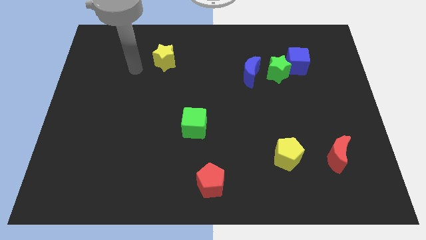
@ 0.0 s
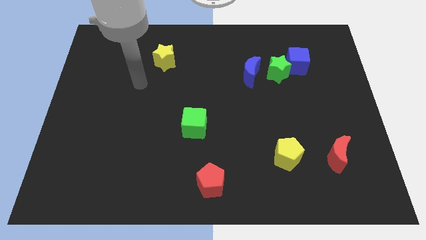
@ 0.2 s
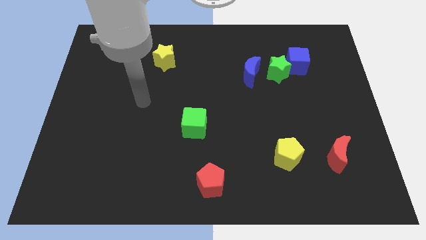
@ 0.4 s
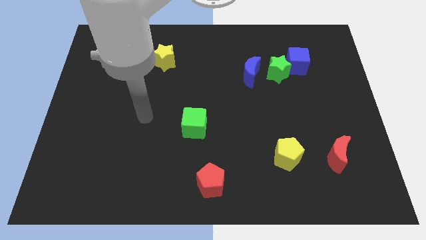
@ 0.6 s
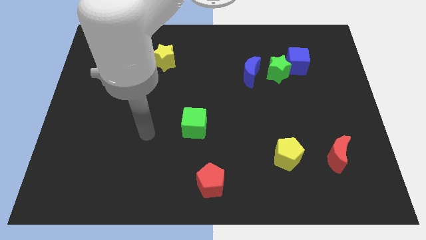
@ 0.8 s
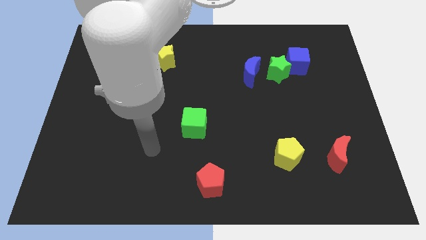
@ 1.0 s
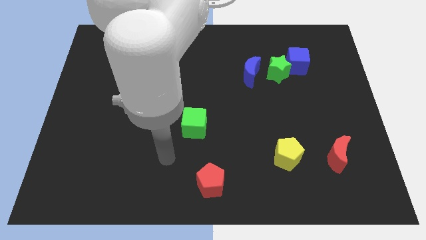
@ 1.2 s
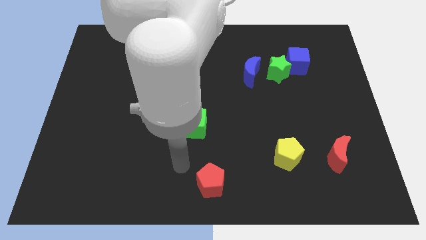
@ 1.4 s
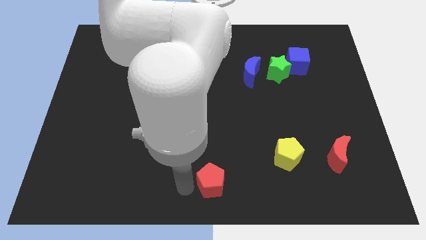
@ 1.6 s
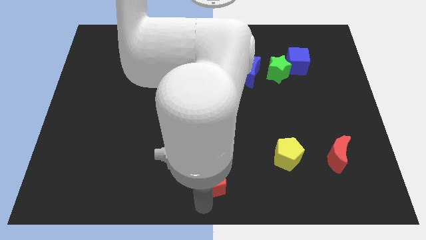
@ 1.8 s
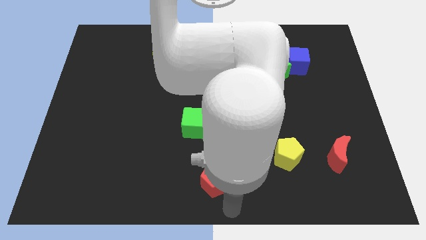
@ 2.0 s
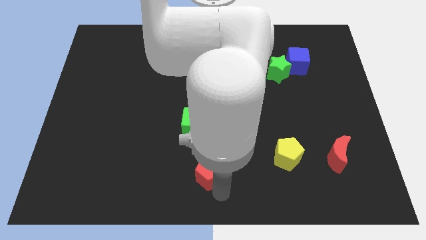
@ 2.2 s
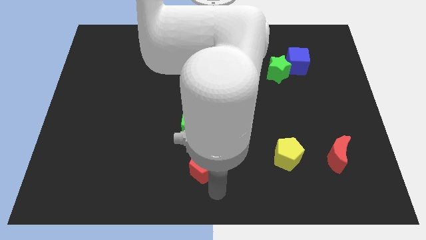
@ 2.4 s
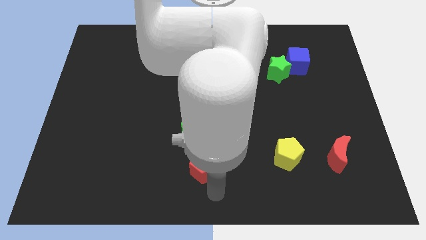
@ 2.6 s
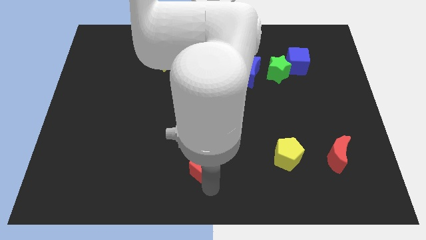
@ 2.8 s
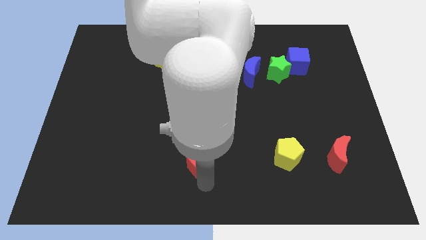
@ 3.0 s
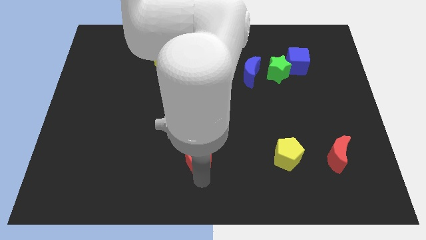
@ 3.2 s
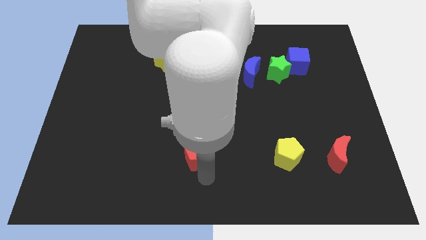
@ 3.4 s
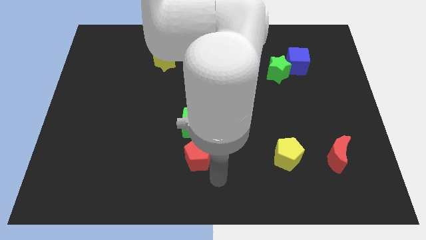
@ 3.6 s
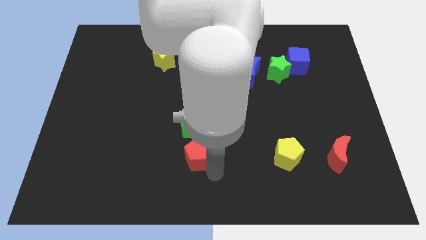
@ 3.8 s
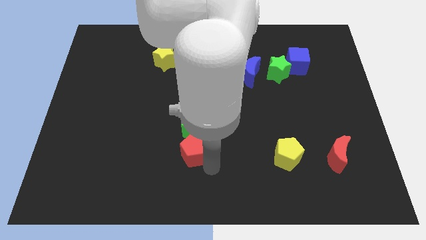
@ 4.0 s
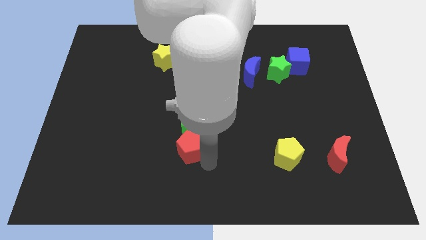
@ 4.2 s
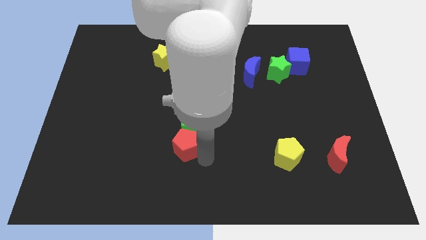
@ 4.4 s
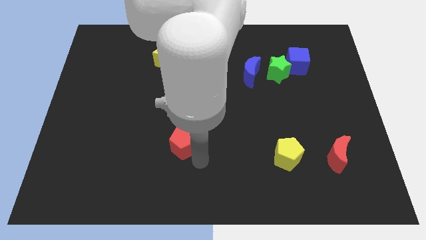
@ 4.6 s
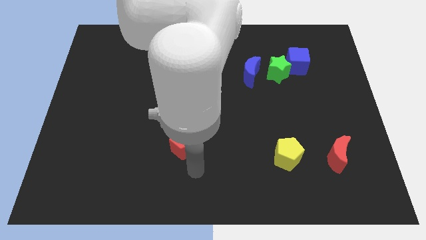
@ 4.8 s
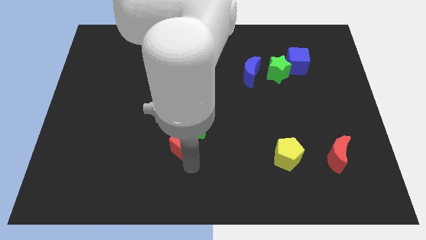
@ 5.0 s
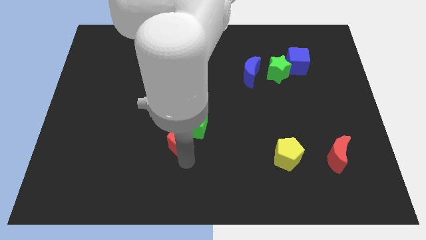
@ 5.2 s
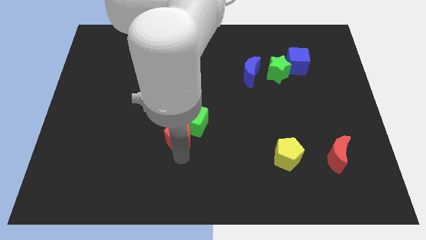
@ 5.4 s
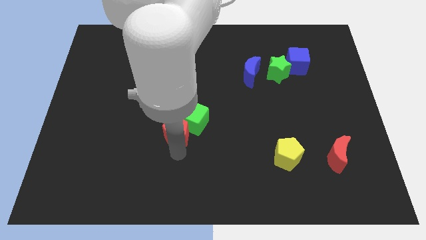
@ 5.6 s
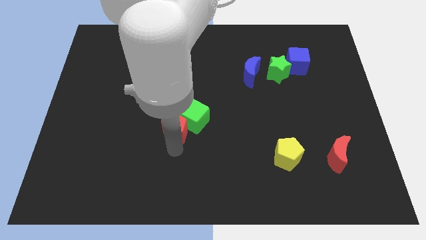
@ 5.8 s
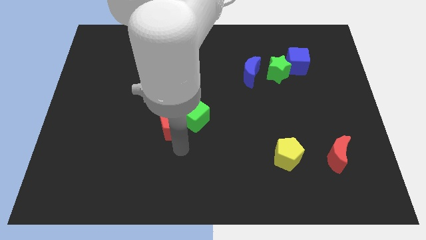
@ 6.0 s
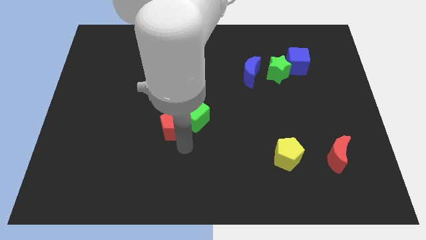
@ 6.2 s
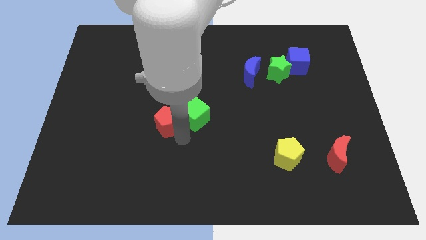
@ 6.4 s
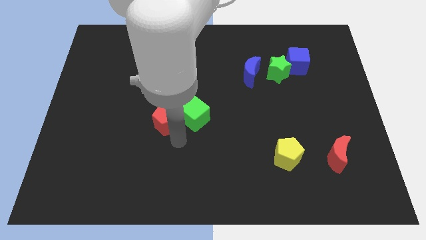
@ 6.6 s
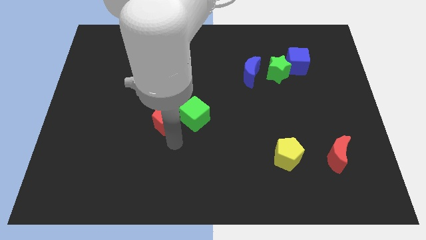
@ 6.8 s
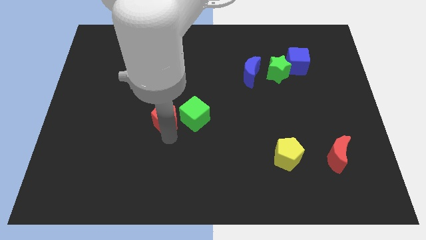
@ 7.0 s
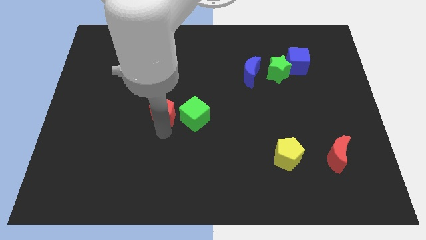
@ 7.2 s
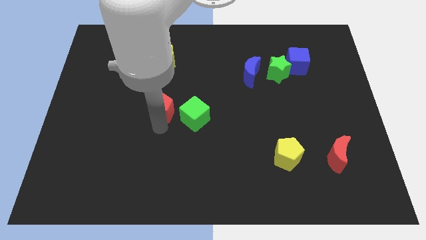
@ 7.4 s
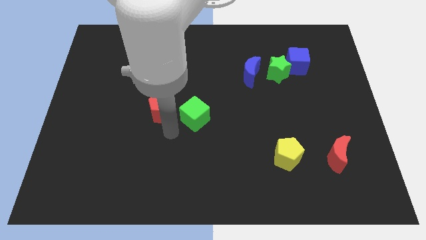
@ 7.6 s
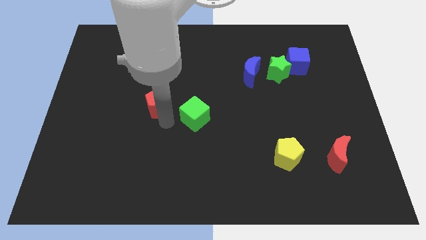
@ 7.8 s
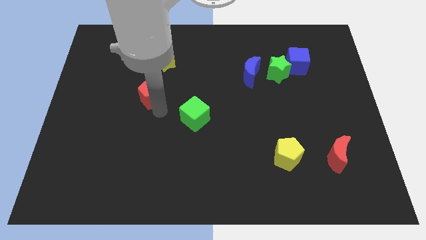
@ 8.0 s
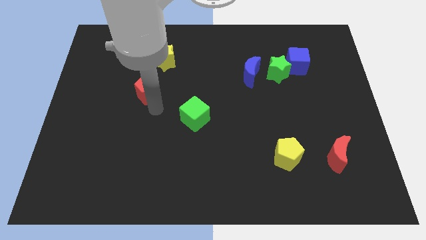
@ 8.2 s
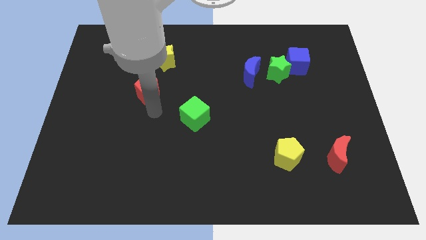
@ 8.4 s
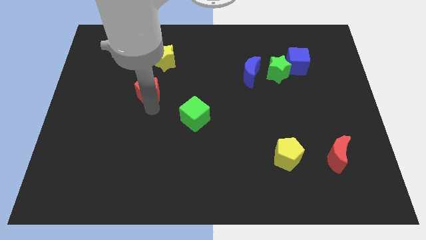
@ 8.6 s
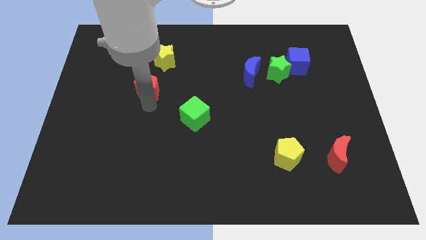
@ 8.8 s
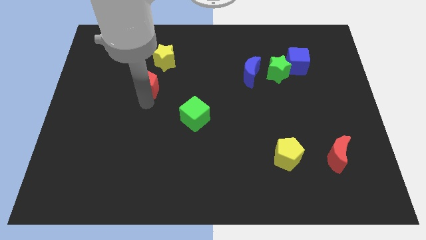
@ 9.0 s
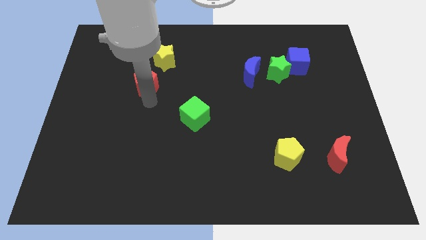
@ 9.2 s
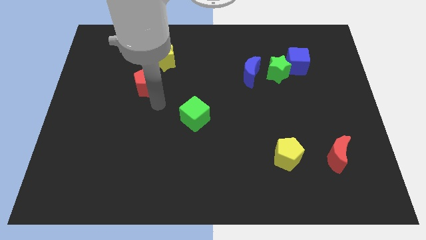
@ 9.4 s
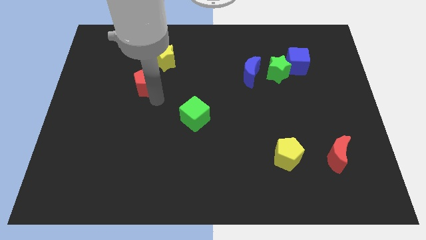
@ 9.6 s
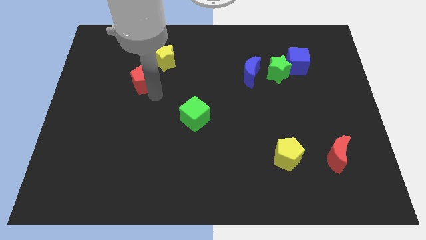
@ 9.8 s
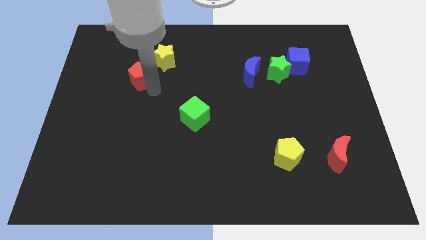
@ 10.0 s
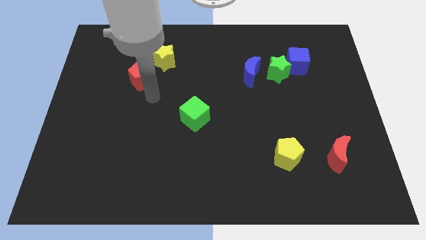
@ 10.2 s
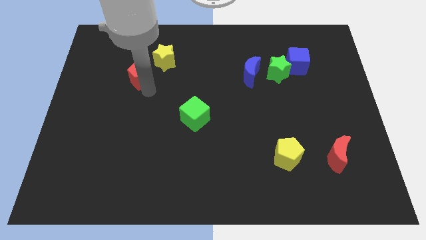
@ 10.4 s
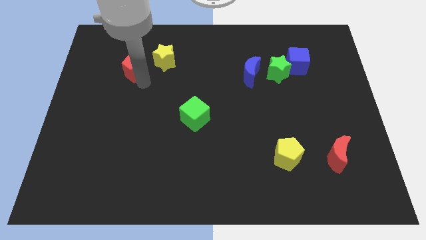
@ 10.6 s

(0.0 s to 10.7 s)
move the red pentagon just left of the yellow star

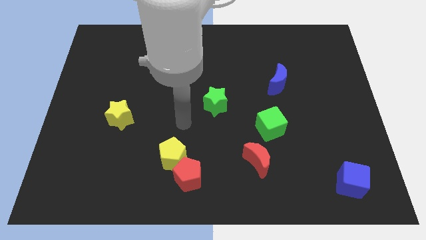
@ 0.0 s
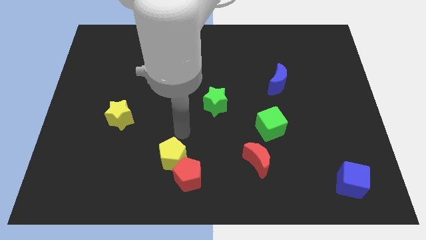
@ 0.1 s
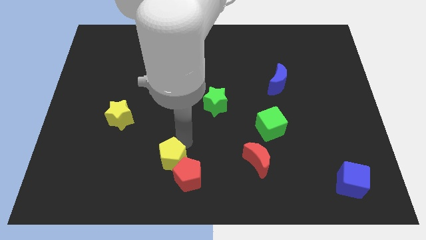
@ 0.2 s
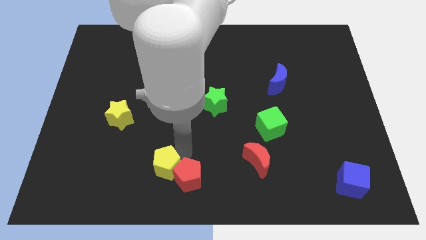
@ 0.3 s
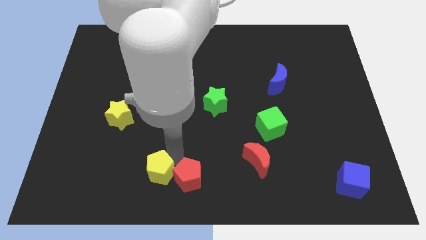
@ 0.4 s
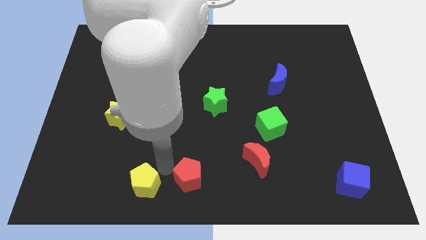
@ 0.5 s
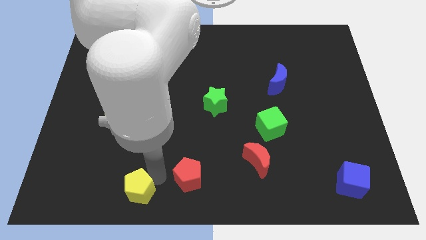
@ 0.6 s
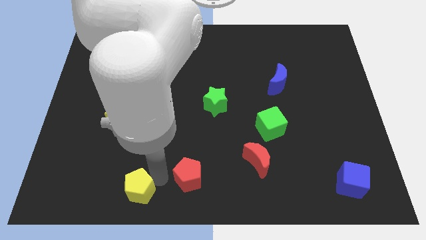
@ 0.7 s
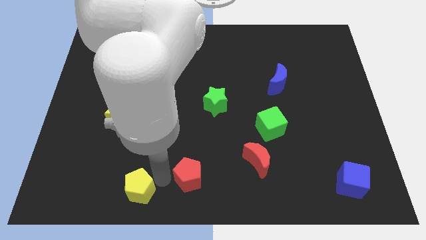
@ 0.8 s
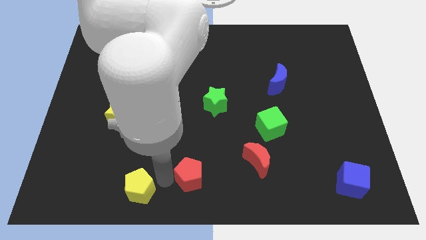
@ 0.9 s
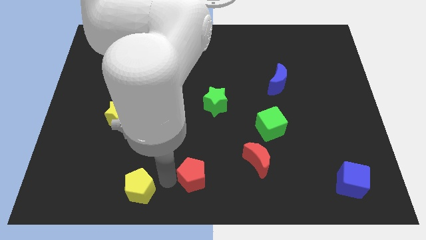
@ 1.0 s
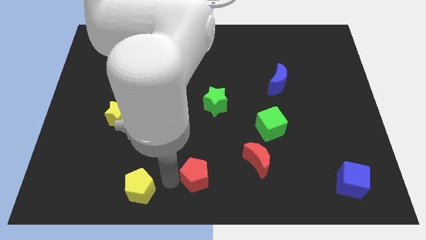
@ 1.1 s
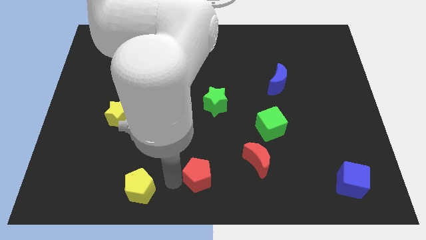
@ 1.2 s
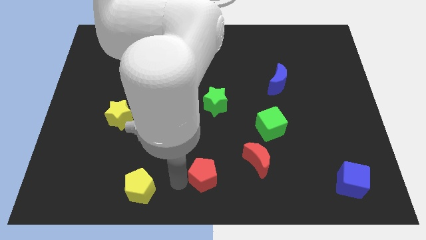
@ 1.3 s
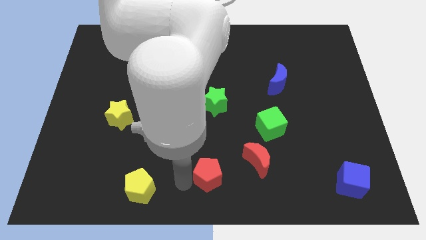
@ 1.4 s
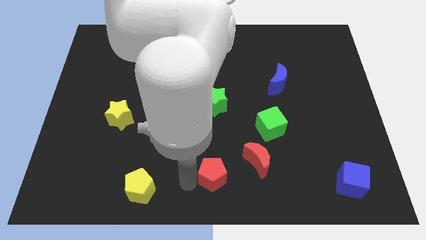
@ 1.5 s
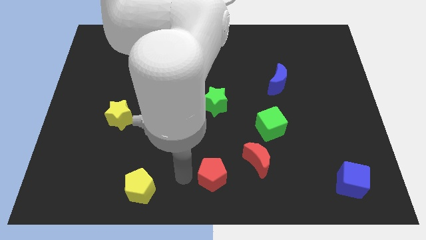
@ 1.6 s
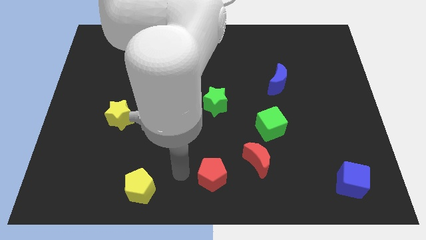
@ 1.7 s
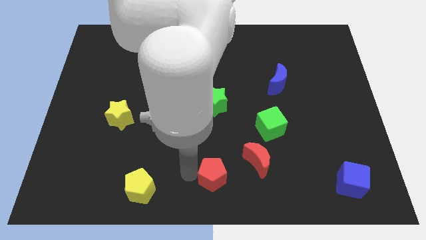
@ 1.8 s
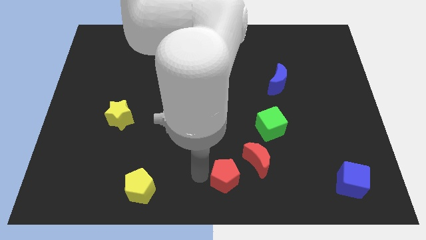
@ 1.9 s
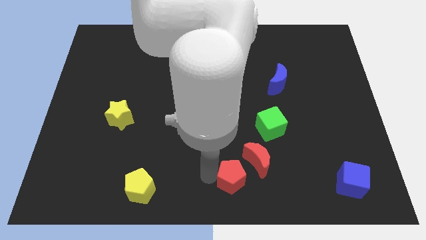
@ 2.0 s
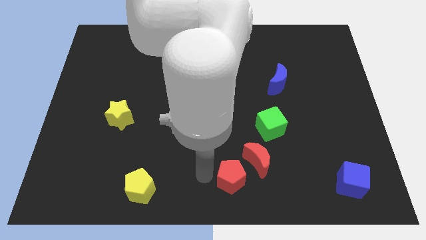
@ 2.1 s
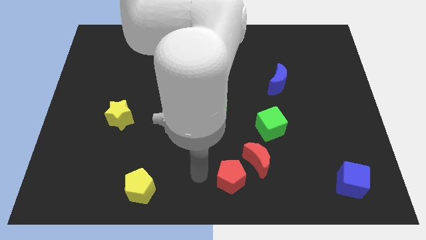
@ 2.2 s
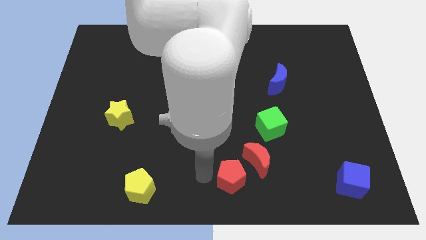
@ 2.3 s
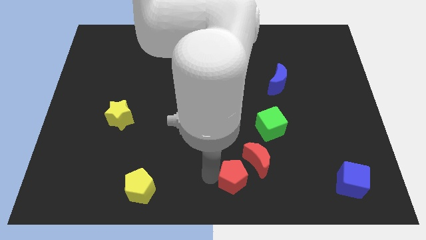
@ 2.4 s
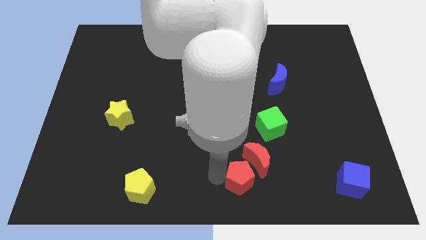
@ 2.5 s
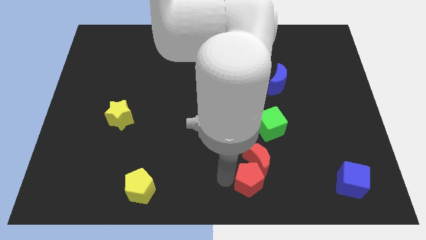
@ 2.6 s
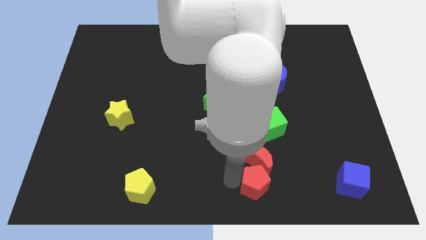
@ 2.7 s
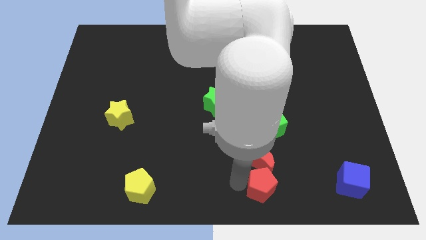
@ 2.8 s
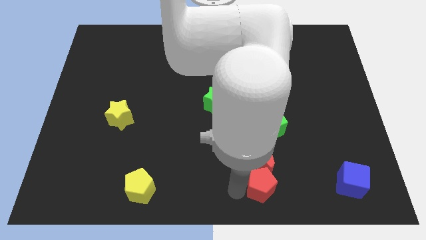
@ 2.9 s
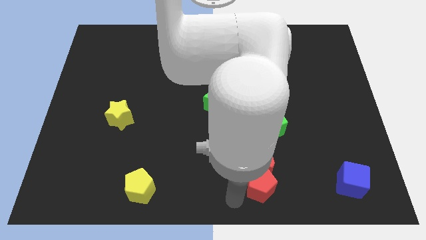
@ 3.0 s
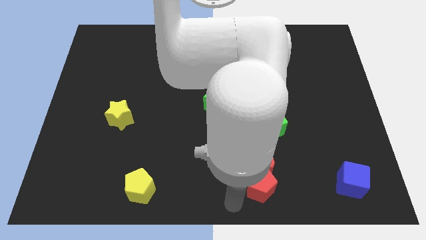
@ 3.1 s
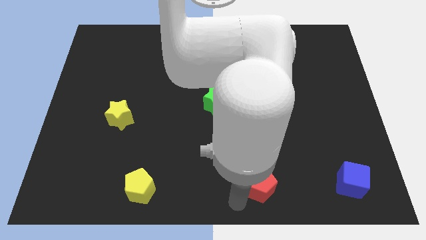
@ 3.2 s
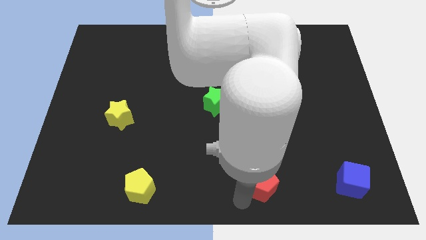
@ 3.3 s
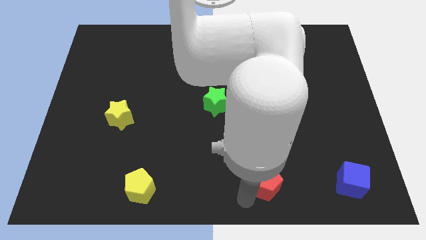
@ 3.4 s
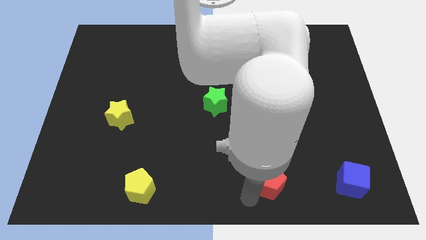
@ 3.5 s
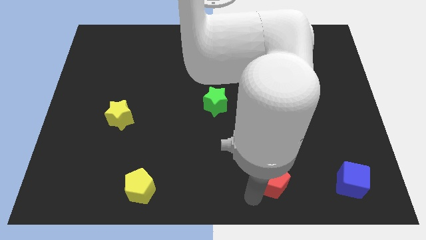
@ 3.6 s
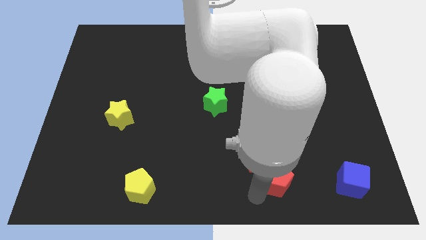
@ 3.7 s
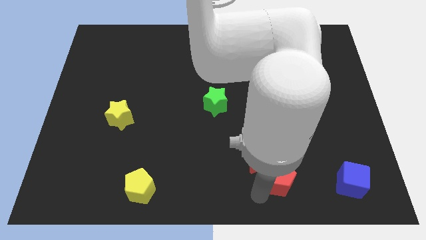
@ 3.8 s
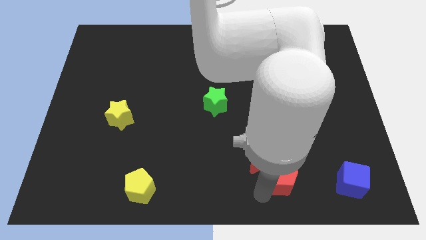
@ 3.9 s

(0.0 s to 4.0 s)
put the red pentagon to the right side of the red moon
